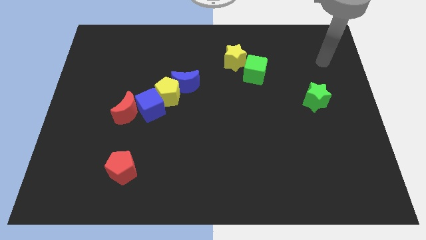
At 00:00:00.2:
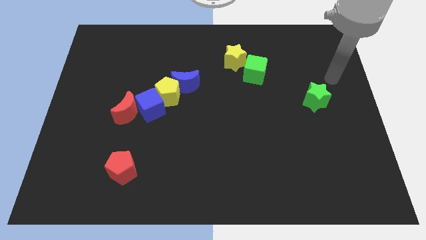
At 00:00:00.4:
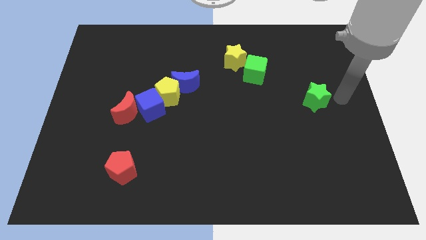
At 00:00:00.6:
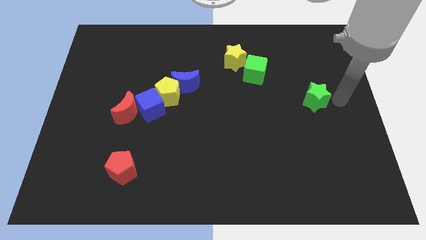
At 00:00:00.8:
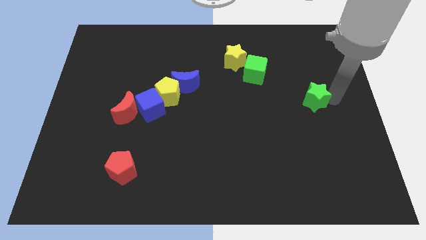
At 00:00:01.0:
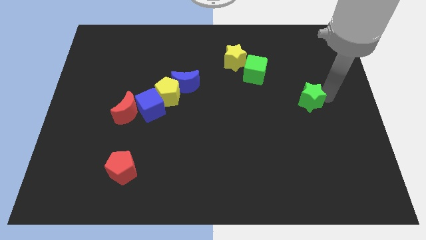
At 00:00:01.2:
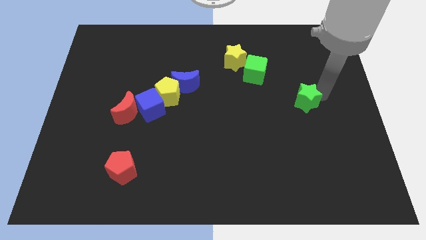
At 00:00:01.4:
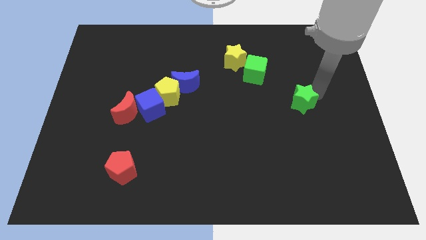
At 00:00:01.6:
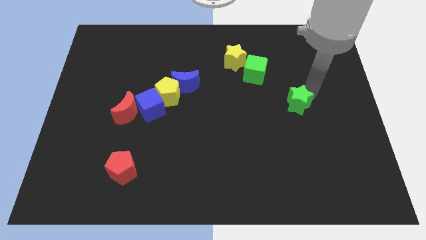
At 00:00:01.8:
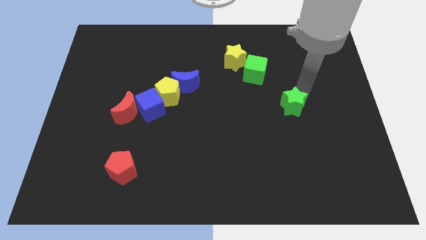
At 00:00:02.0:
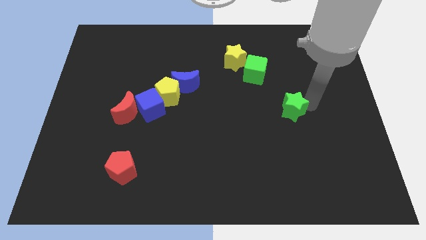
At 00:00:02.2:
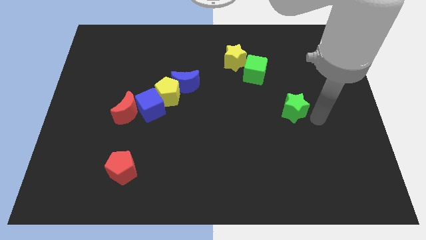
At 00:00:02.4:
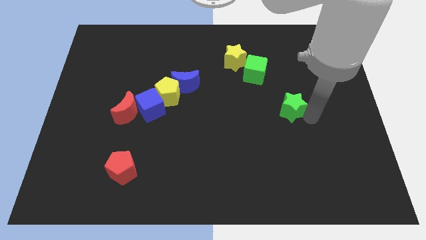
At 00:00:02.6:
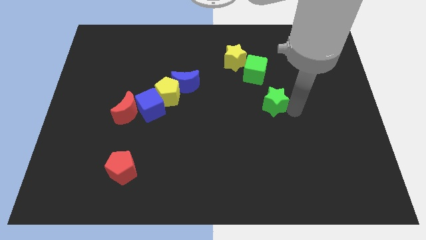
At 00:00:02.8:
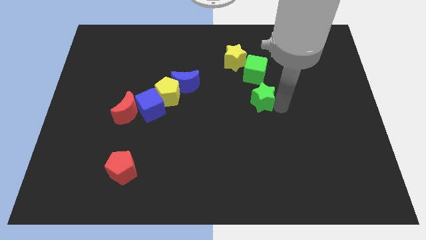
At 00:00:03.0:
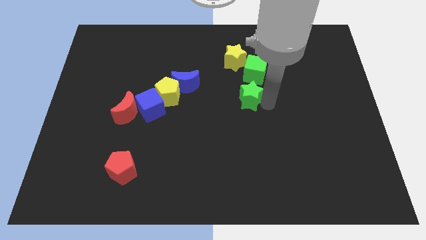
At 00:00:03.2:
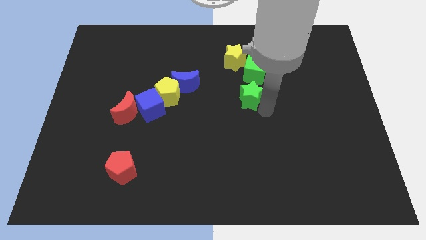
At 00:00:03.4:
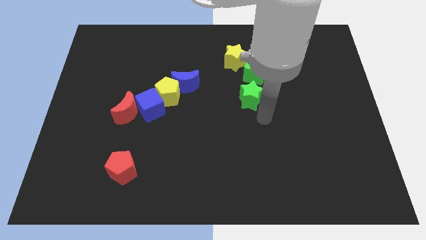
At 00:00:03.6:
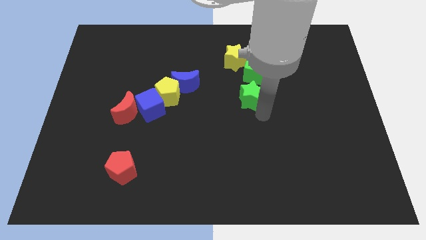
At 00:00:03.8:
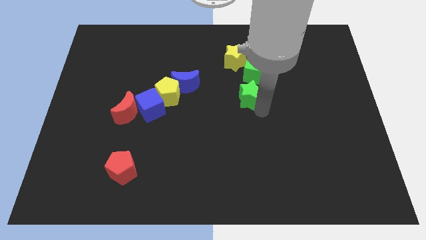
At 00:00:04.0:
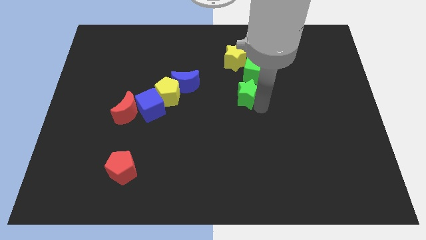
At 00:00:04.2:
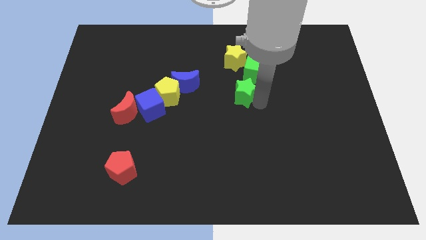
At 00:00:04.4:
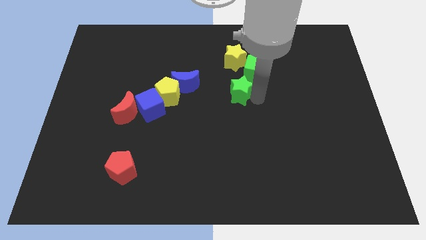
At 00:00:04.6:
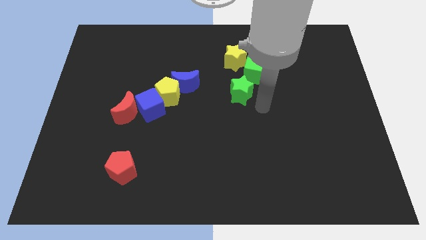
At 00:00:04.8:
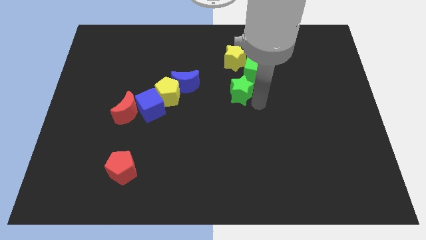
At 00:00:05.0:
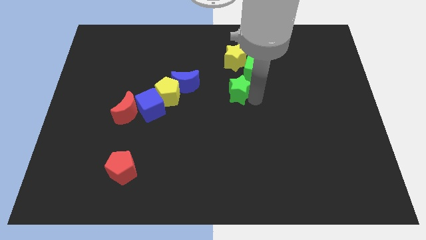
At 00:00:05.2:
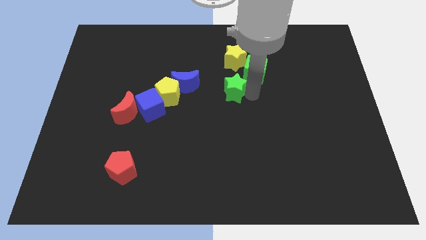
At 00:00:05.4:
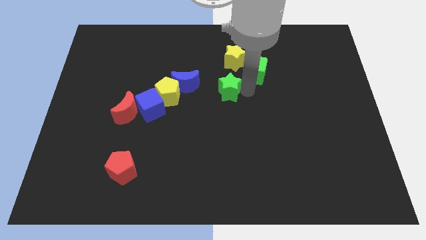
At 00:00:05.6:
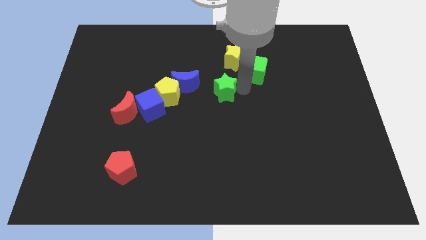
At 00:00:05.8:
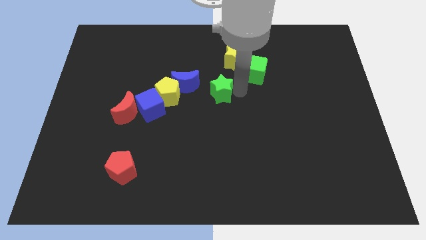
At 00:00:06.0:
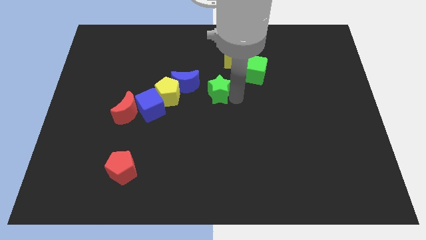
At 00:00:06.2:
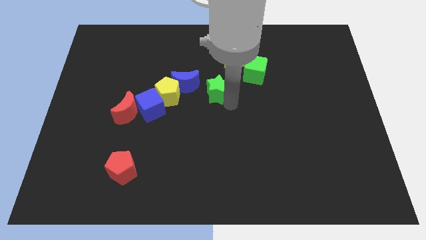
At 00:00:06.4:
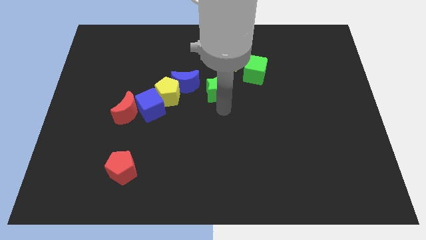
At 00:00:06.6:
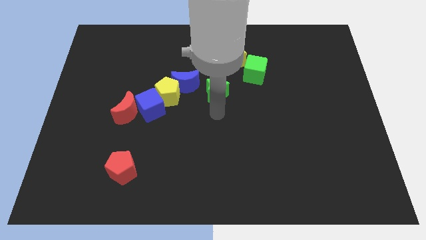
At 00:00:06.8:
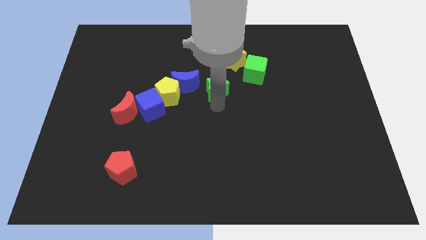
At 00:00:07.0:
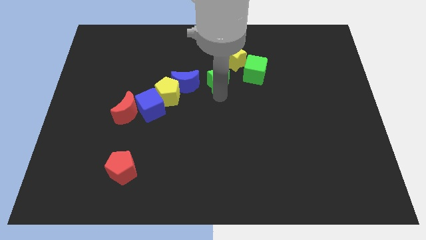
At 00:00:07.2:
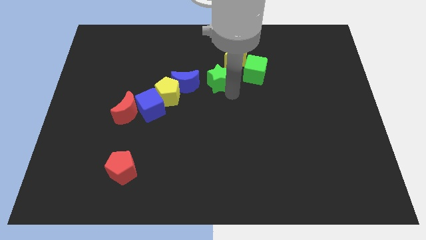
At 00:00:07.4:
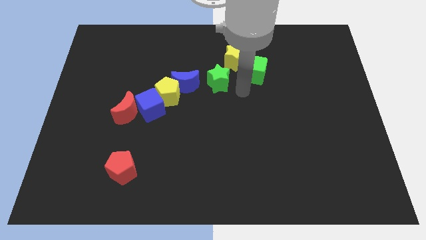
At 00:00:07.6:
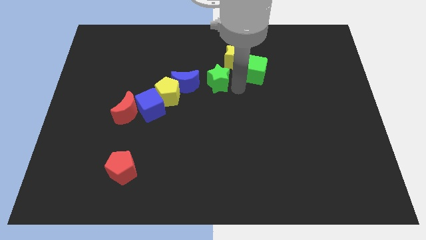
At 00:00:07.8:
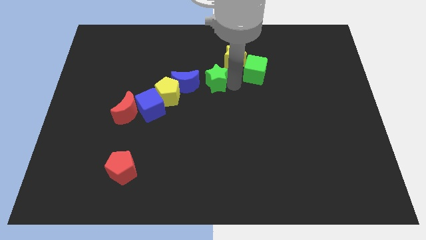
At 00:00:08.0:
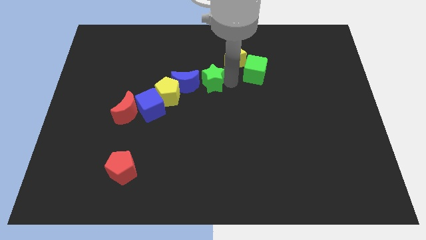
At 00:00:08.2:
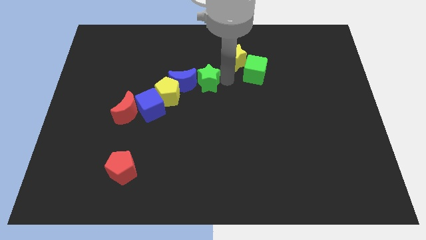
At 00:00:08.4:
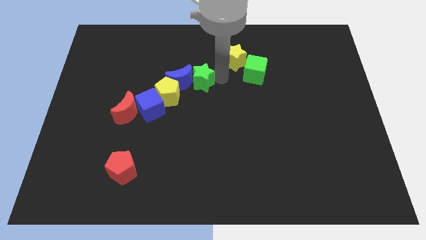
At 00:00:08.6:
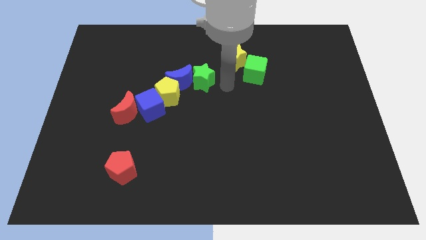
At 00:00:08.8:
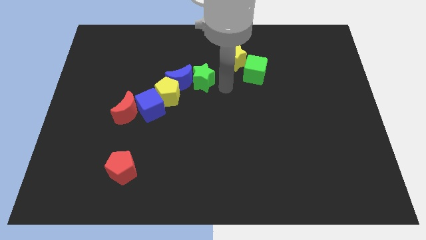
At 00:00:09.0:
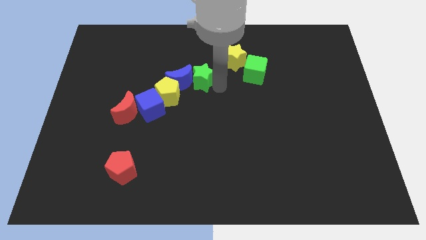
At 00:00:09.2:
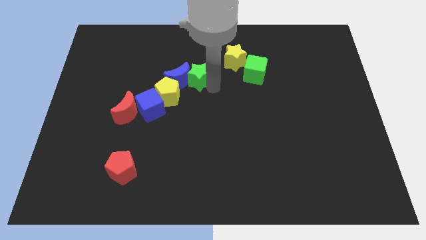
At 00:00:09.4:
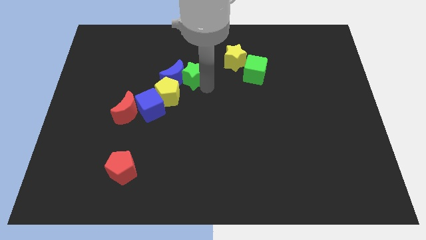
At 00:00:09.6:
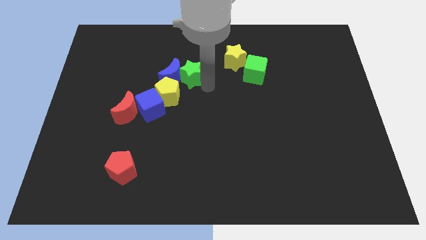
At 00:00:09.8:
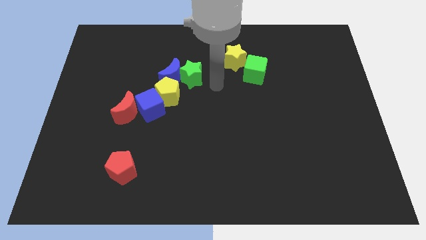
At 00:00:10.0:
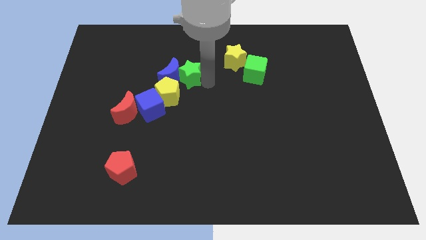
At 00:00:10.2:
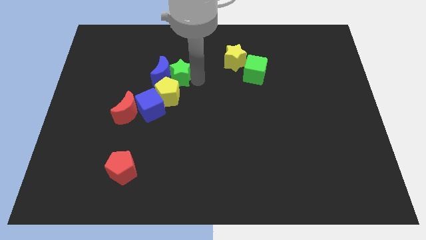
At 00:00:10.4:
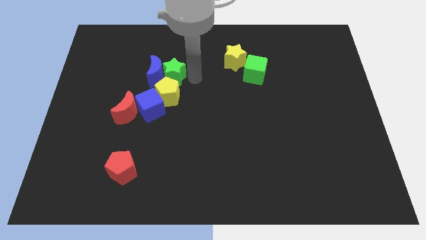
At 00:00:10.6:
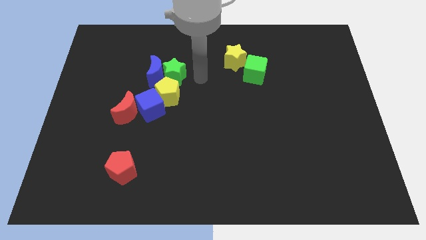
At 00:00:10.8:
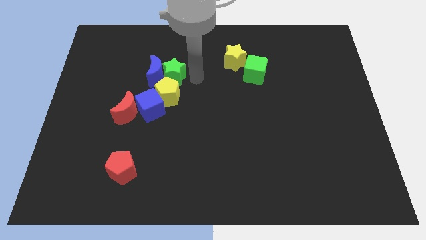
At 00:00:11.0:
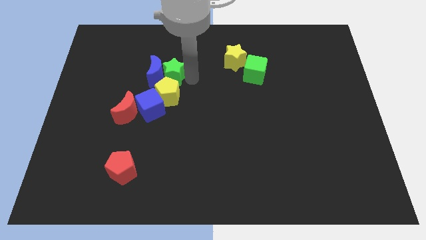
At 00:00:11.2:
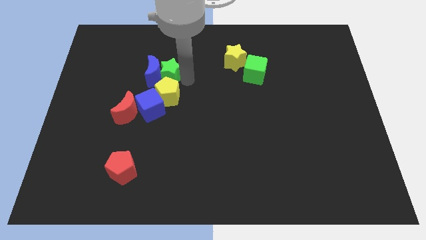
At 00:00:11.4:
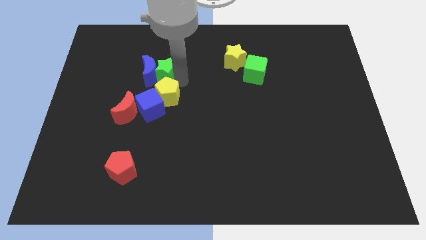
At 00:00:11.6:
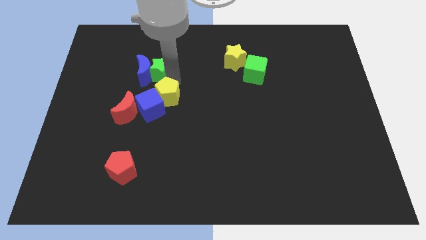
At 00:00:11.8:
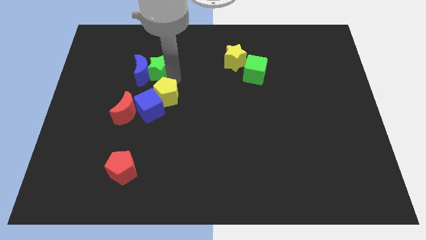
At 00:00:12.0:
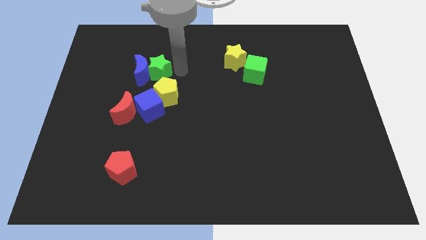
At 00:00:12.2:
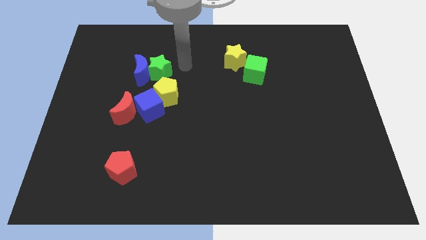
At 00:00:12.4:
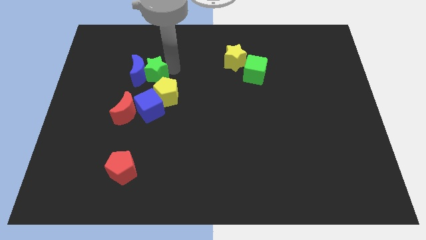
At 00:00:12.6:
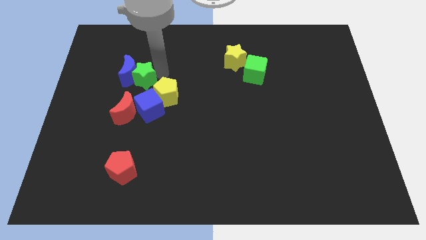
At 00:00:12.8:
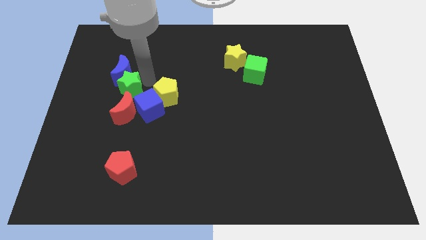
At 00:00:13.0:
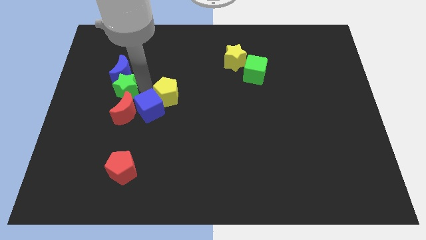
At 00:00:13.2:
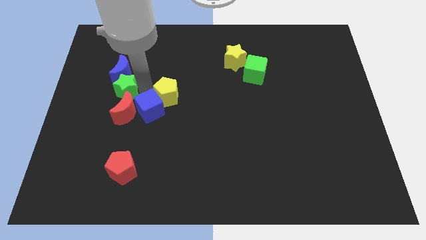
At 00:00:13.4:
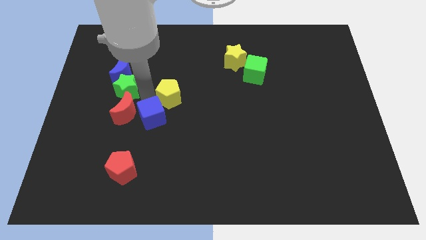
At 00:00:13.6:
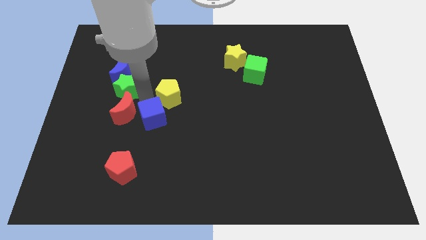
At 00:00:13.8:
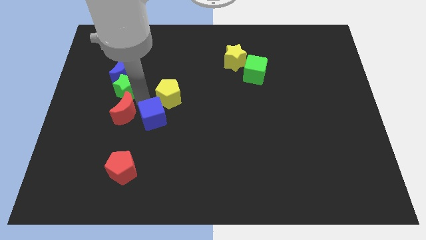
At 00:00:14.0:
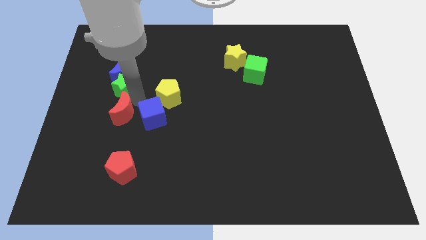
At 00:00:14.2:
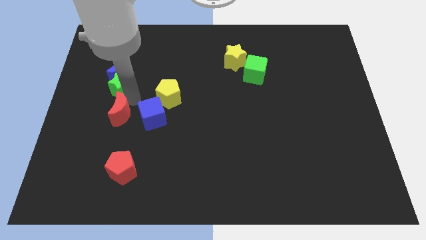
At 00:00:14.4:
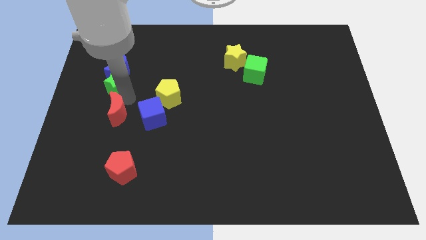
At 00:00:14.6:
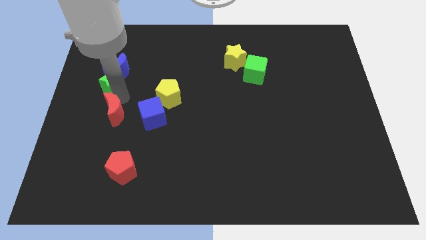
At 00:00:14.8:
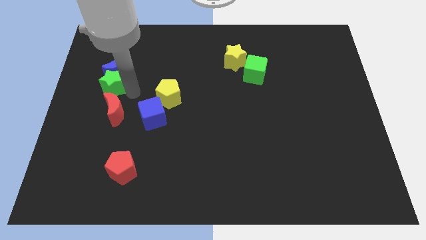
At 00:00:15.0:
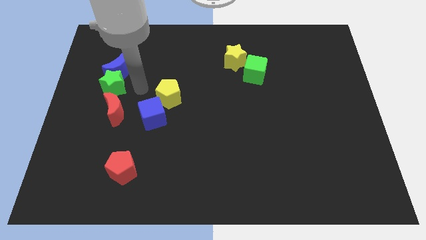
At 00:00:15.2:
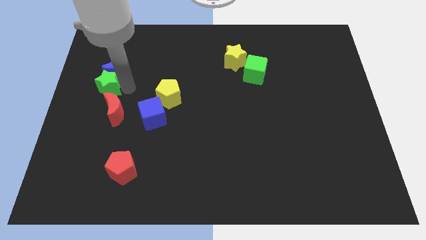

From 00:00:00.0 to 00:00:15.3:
put the green star to the center left
